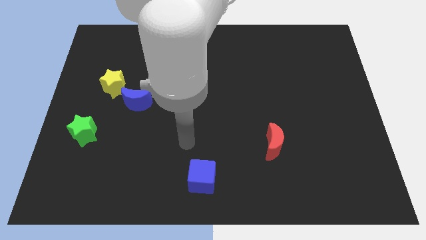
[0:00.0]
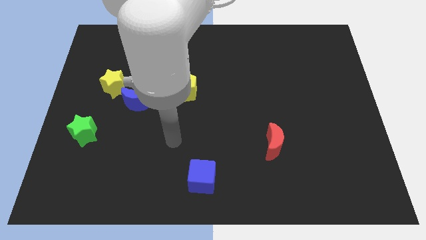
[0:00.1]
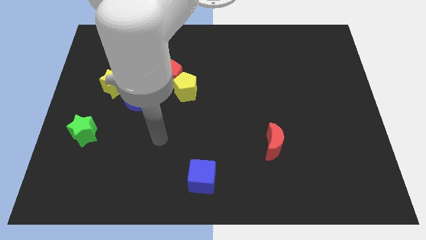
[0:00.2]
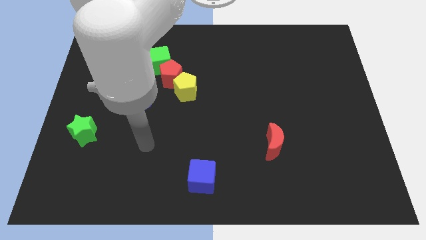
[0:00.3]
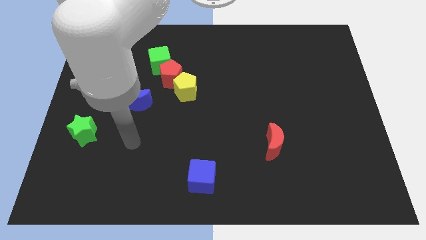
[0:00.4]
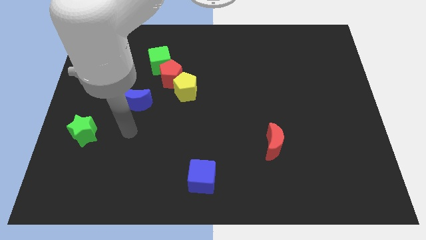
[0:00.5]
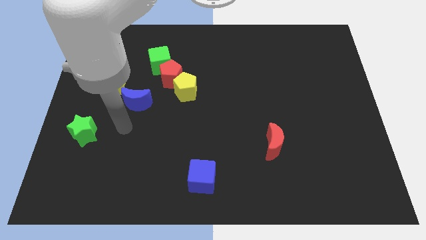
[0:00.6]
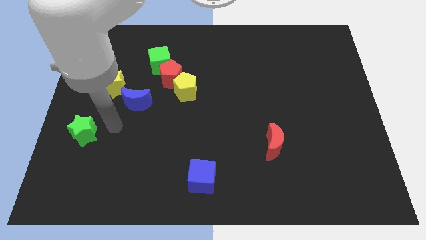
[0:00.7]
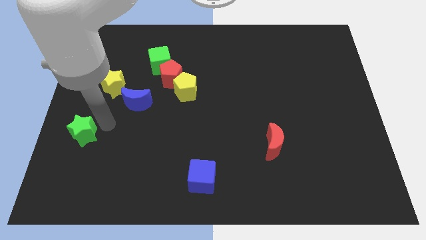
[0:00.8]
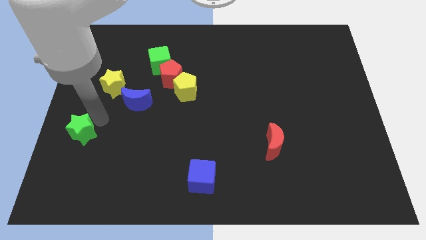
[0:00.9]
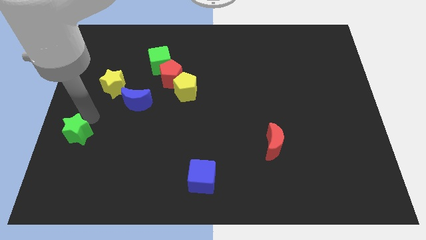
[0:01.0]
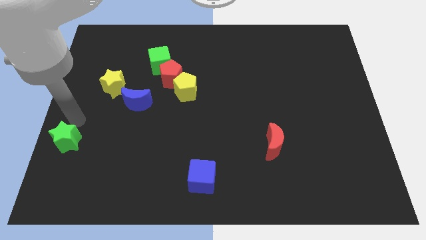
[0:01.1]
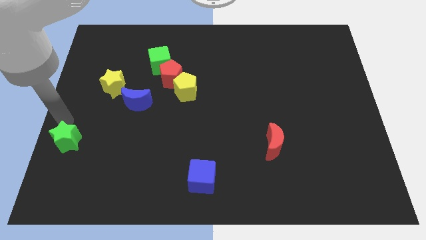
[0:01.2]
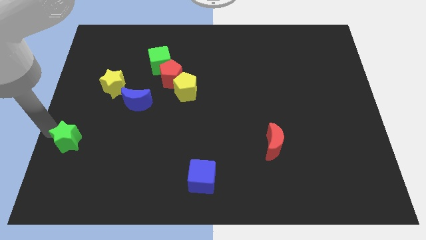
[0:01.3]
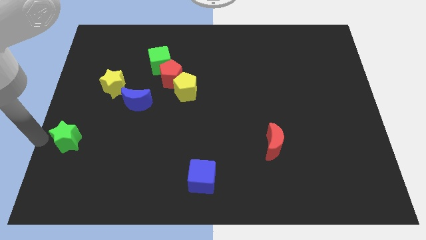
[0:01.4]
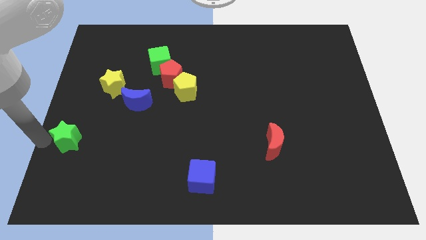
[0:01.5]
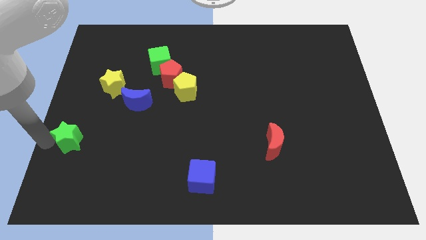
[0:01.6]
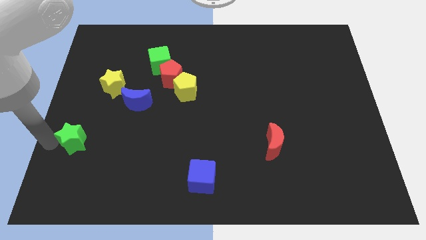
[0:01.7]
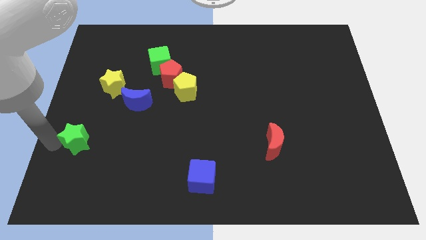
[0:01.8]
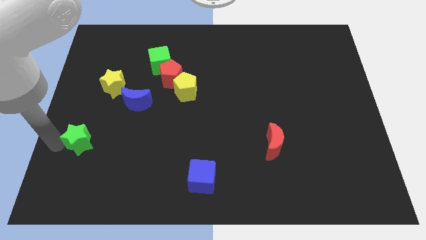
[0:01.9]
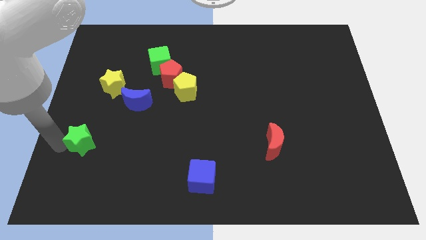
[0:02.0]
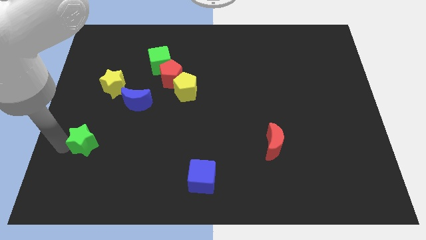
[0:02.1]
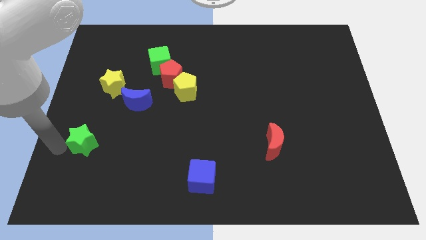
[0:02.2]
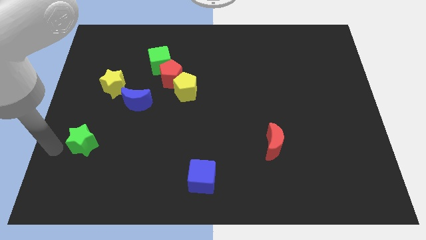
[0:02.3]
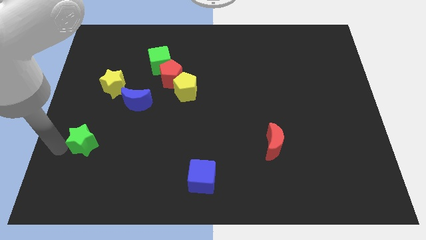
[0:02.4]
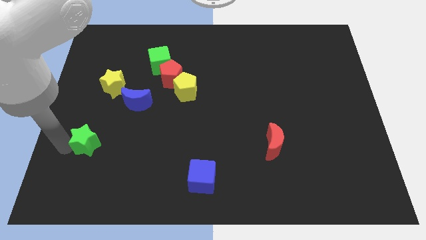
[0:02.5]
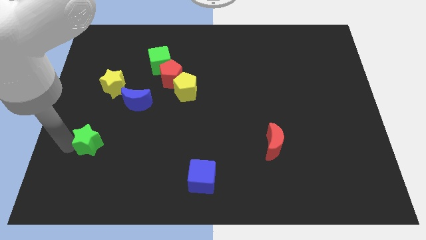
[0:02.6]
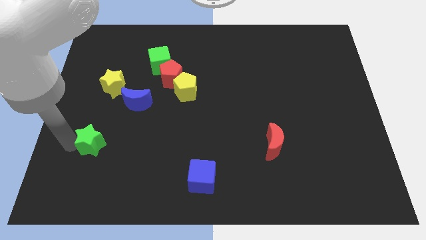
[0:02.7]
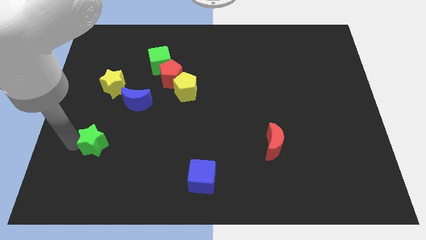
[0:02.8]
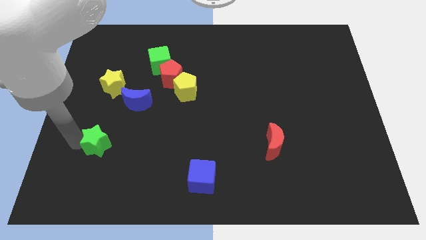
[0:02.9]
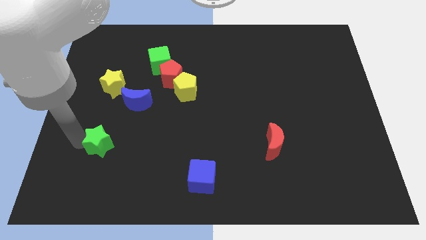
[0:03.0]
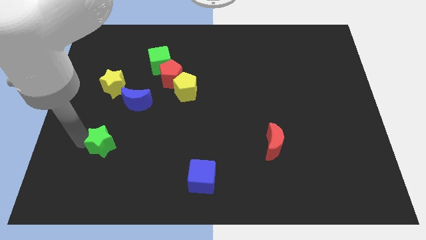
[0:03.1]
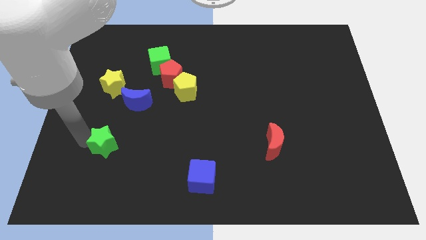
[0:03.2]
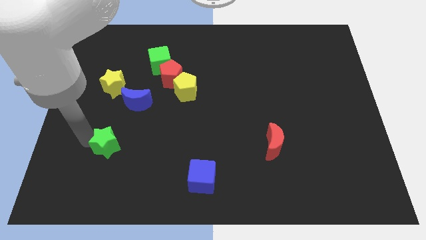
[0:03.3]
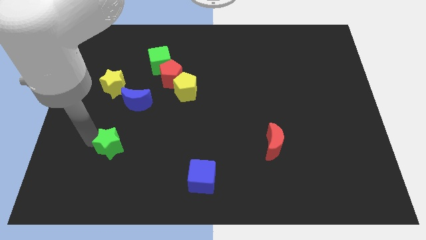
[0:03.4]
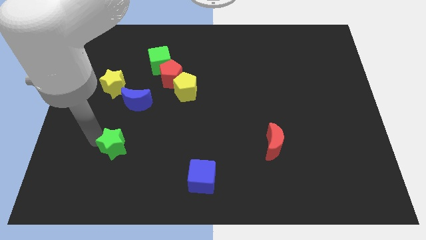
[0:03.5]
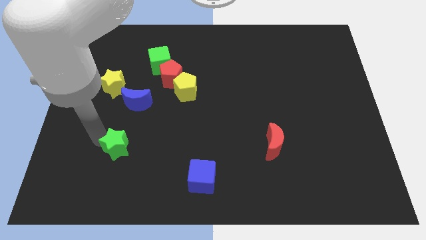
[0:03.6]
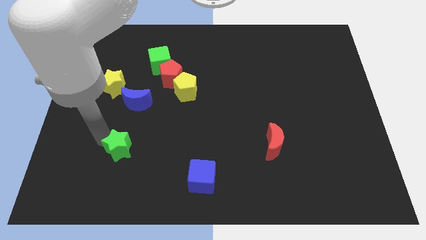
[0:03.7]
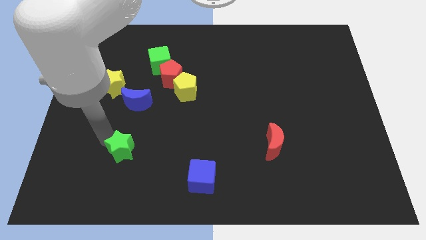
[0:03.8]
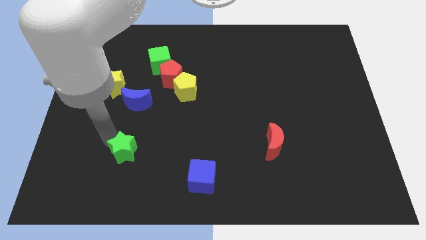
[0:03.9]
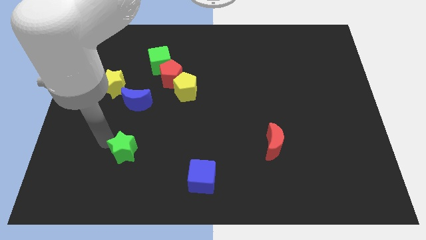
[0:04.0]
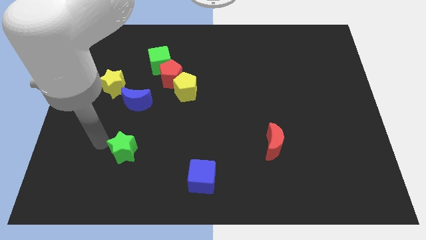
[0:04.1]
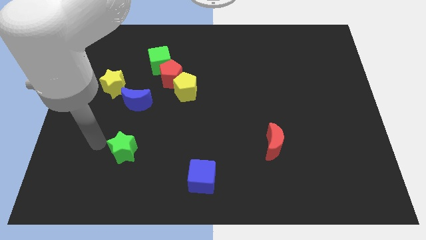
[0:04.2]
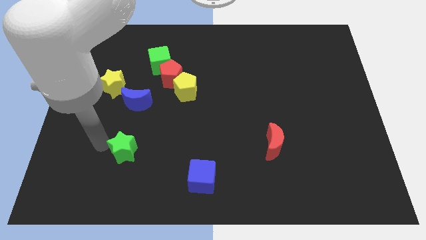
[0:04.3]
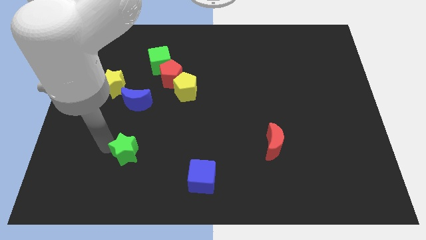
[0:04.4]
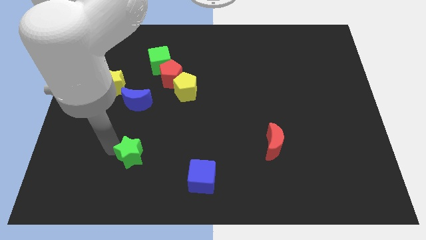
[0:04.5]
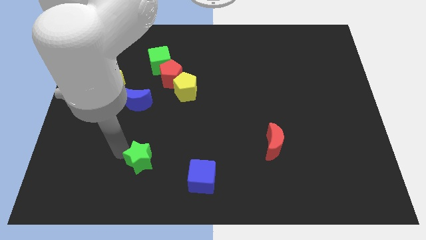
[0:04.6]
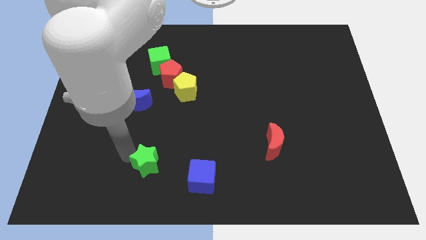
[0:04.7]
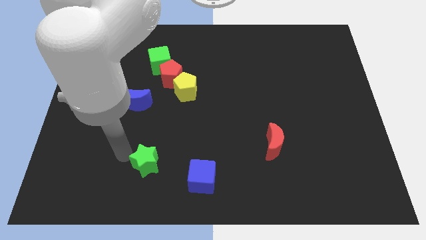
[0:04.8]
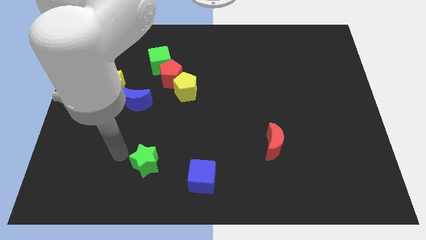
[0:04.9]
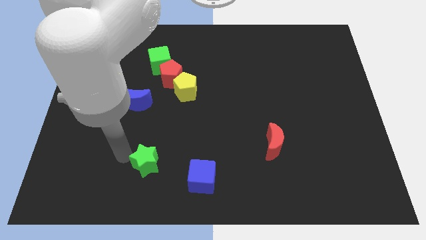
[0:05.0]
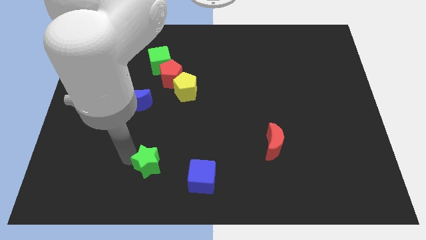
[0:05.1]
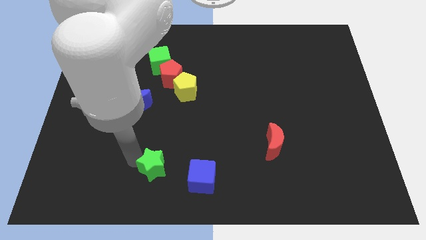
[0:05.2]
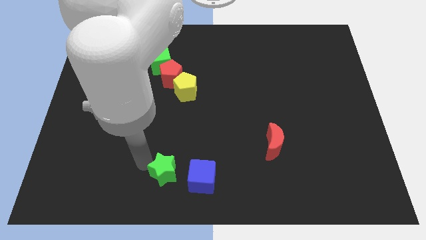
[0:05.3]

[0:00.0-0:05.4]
slide the green star to the bottom

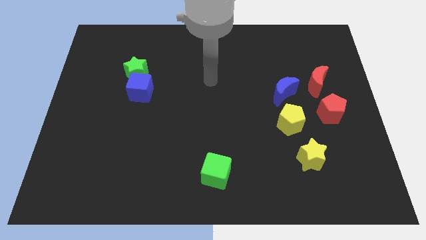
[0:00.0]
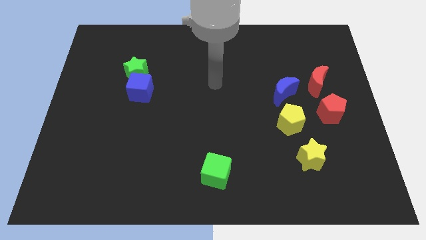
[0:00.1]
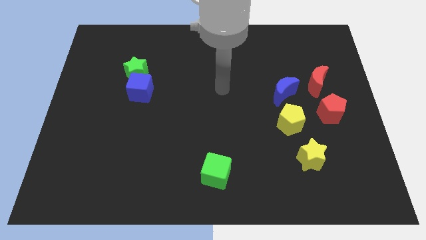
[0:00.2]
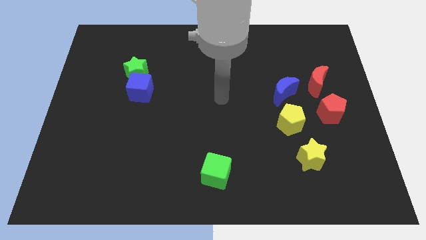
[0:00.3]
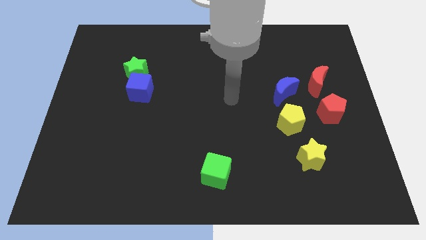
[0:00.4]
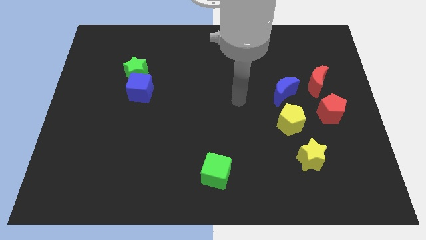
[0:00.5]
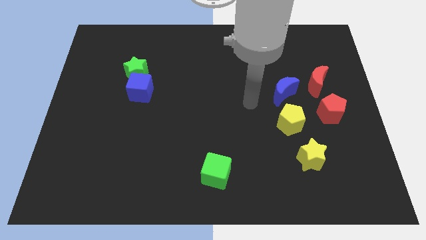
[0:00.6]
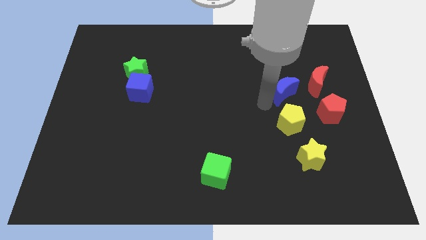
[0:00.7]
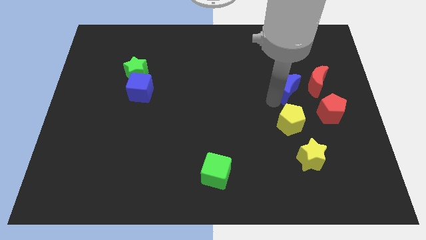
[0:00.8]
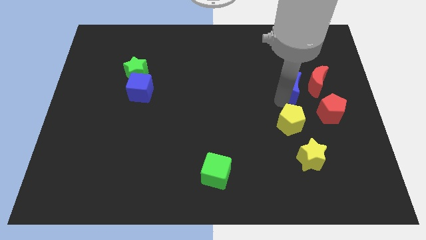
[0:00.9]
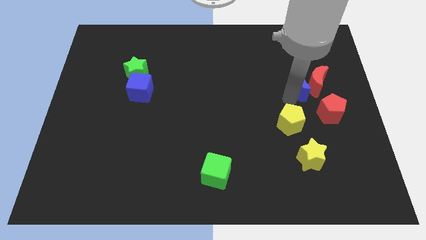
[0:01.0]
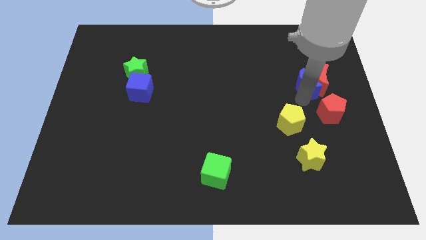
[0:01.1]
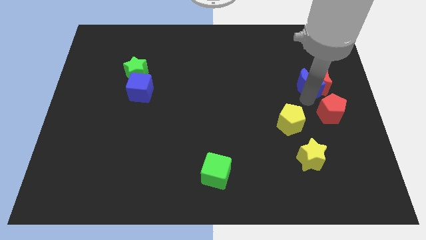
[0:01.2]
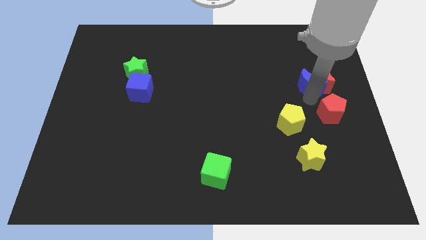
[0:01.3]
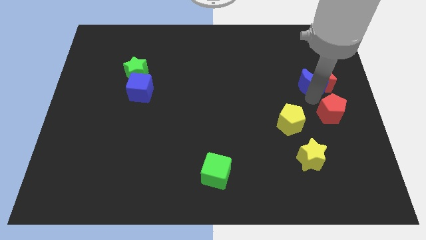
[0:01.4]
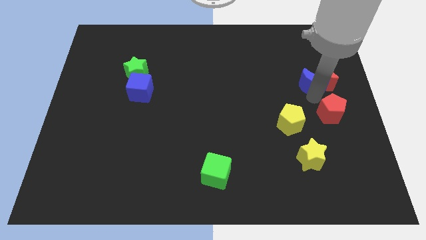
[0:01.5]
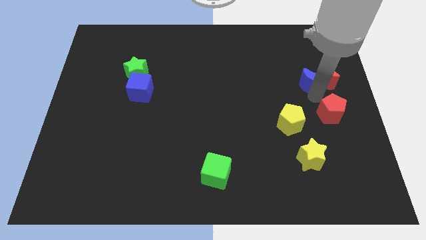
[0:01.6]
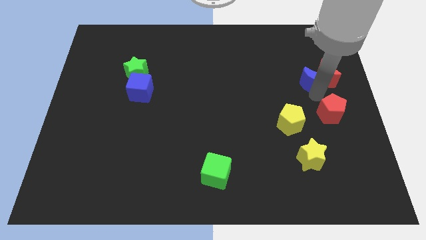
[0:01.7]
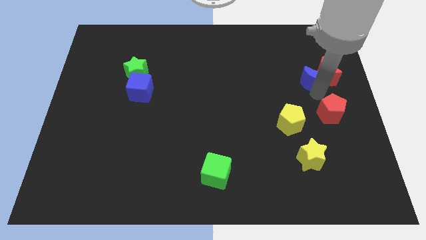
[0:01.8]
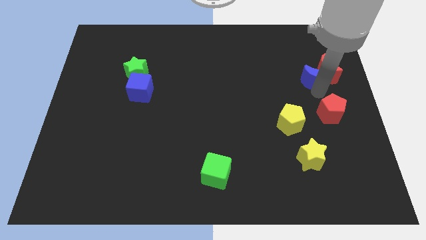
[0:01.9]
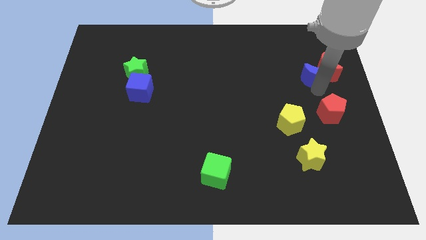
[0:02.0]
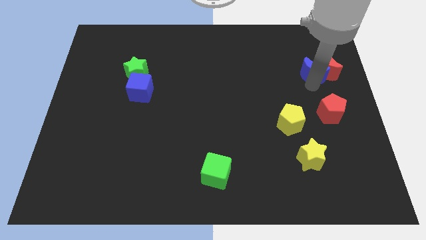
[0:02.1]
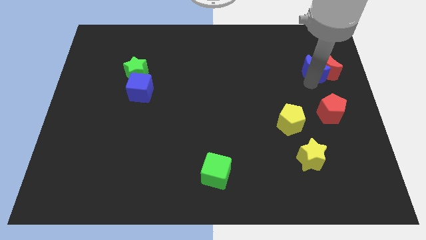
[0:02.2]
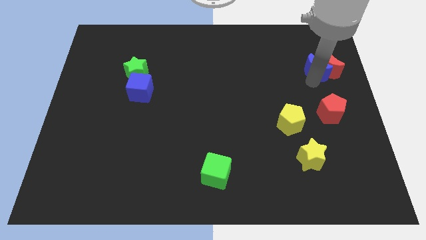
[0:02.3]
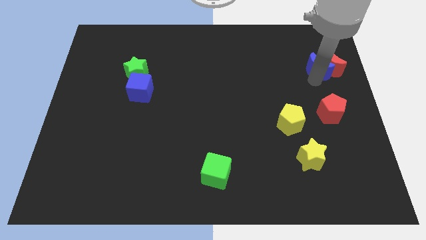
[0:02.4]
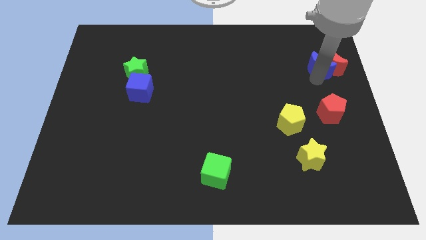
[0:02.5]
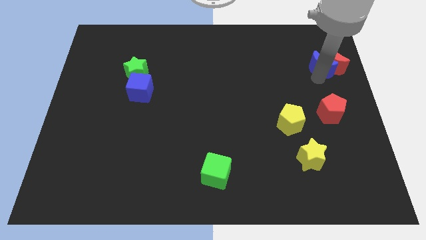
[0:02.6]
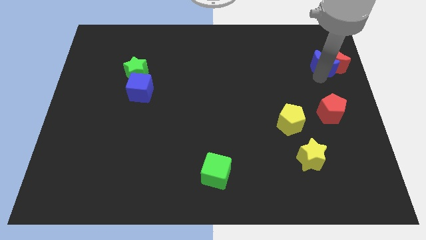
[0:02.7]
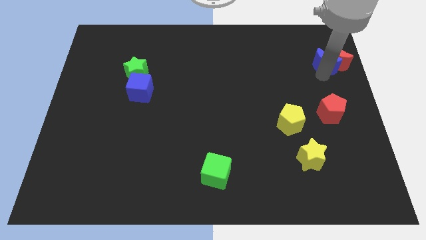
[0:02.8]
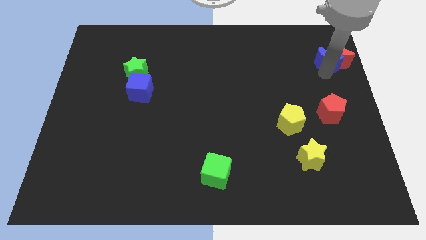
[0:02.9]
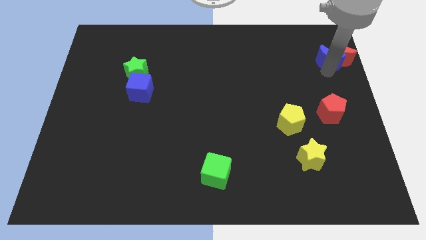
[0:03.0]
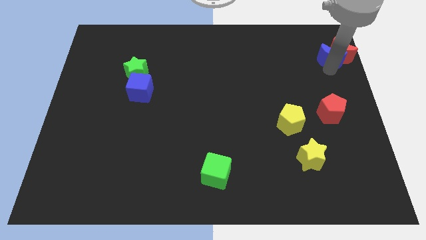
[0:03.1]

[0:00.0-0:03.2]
push the red moon to the upper right corner
